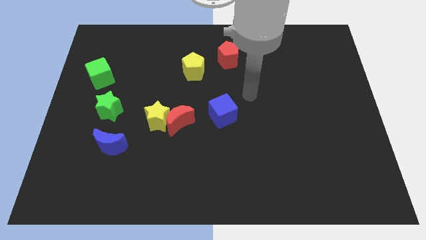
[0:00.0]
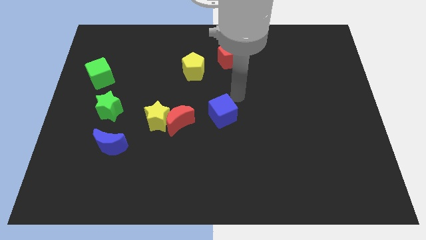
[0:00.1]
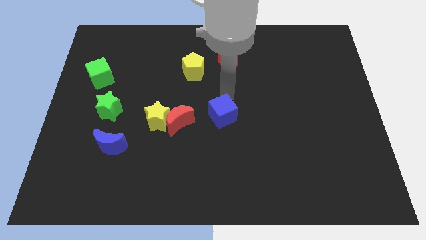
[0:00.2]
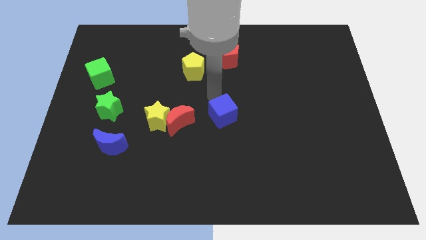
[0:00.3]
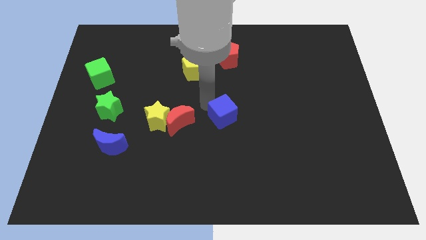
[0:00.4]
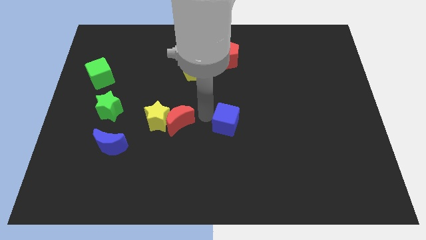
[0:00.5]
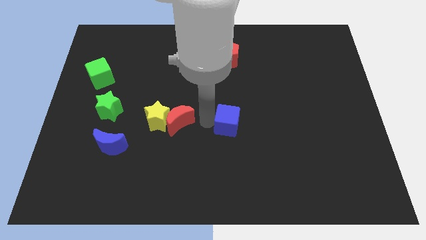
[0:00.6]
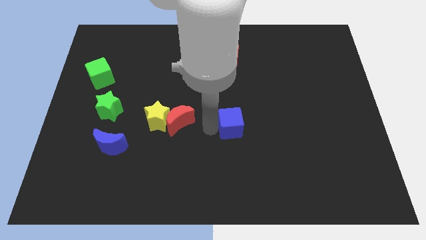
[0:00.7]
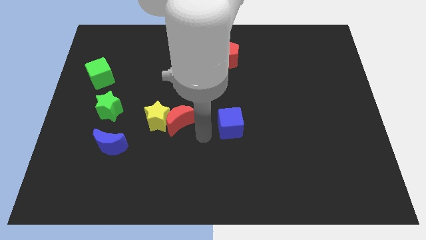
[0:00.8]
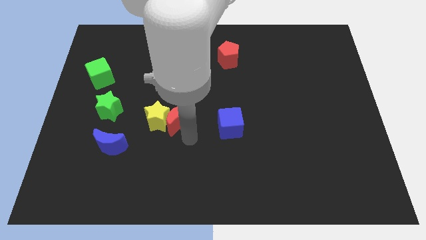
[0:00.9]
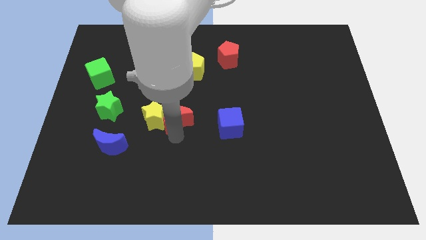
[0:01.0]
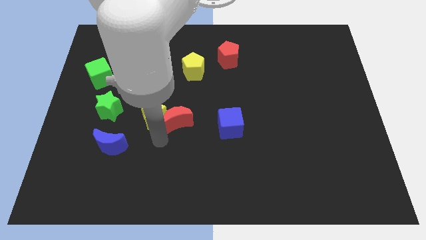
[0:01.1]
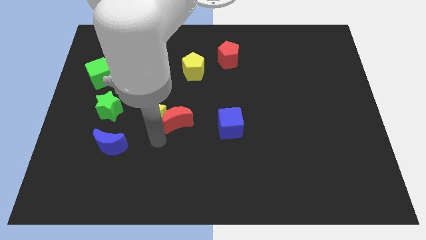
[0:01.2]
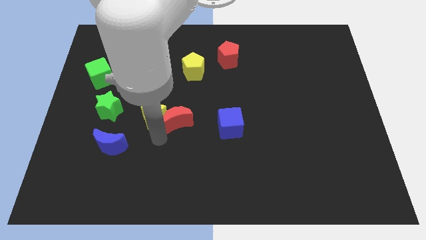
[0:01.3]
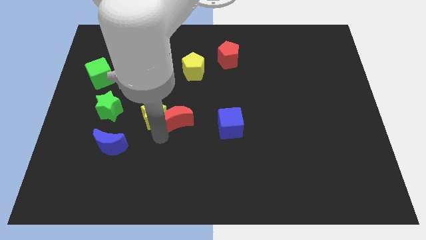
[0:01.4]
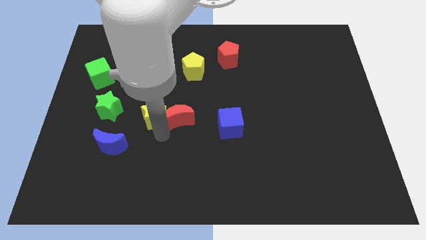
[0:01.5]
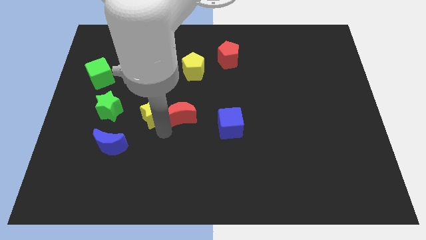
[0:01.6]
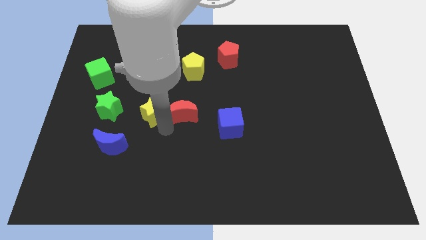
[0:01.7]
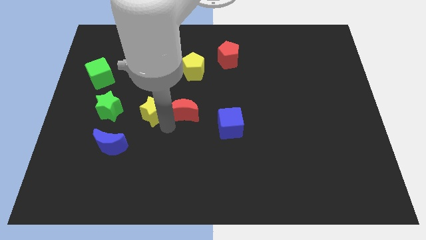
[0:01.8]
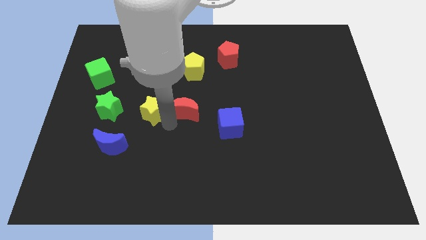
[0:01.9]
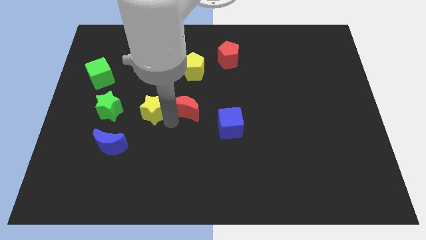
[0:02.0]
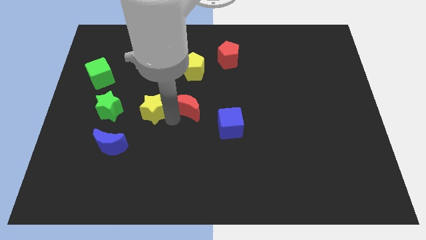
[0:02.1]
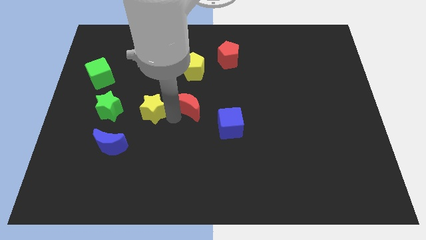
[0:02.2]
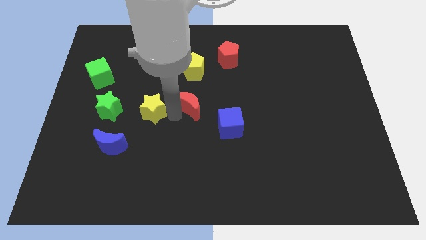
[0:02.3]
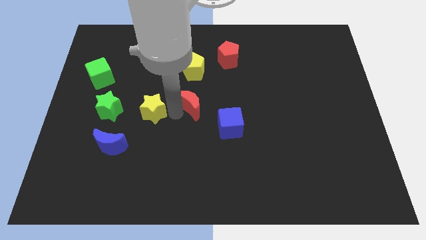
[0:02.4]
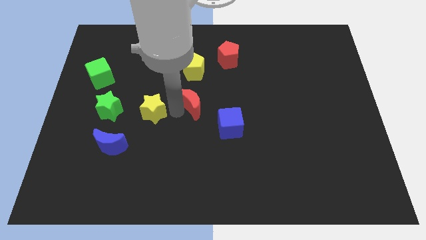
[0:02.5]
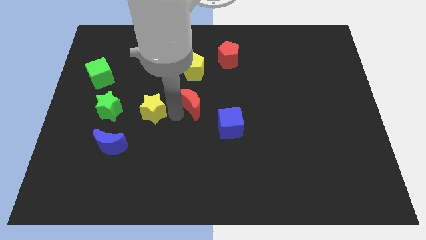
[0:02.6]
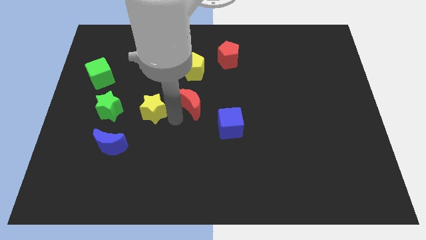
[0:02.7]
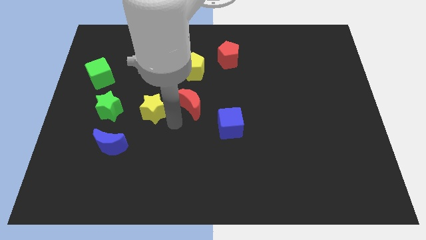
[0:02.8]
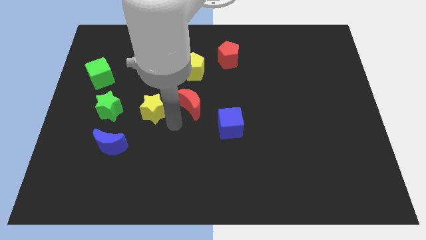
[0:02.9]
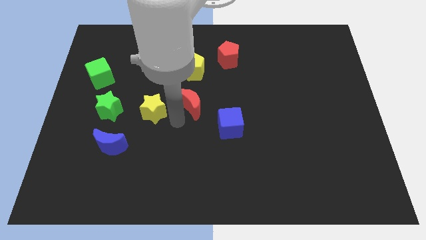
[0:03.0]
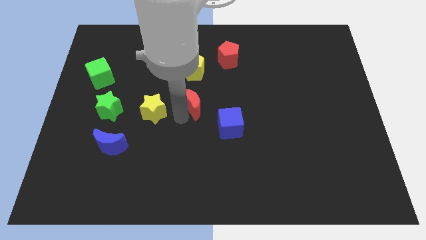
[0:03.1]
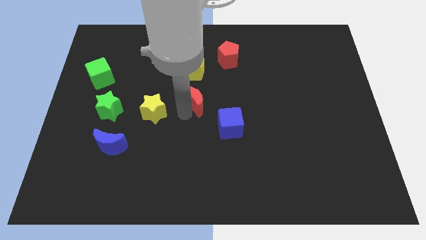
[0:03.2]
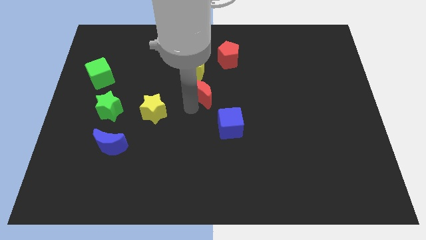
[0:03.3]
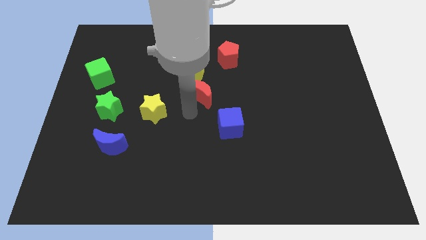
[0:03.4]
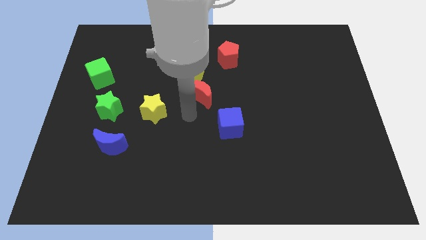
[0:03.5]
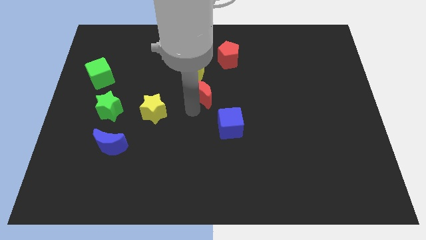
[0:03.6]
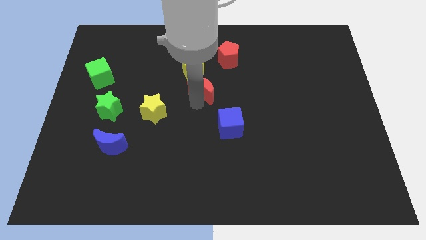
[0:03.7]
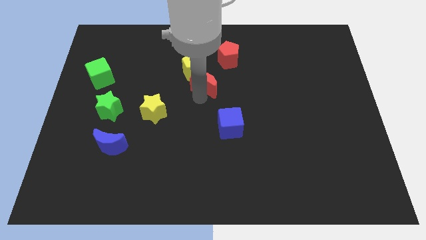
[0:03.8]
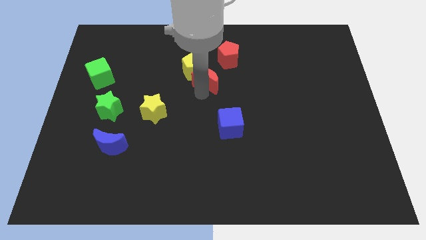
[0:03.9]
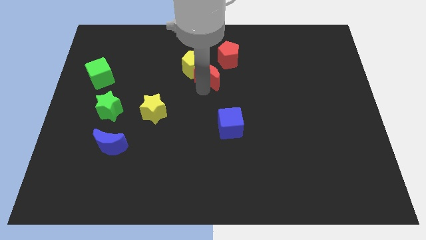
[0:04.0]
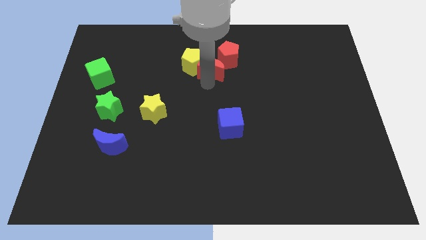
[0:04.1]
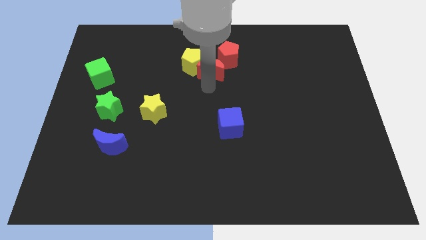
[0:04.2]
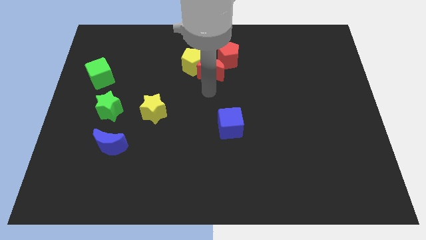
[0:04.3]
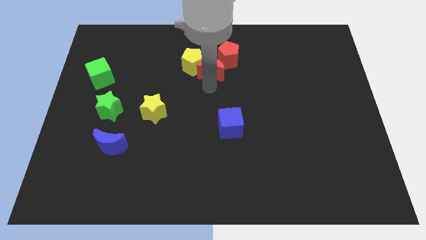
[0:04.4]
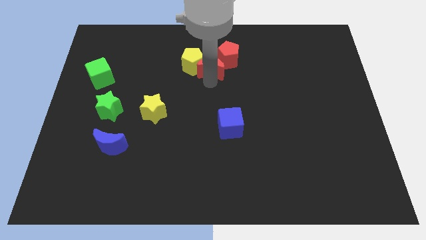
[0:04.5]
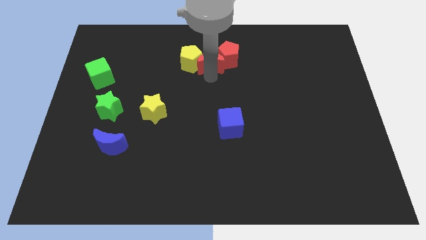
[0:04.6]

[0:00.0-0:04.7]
move the red moon to the top right of the yellow pentagon

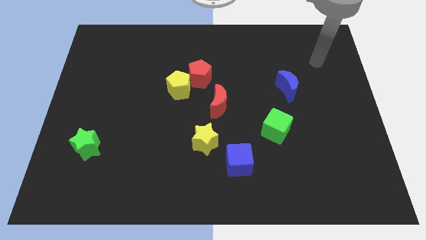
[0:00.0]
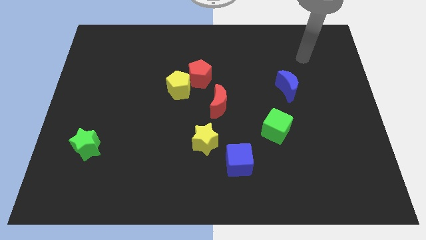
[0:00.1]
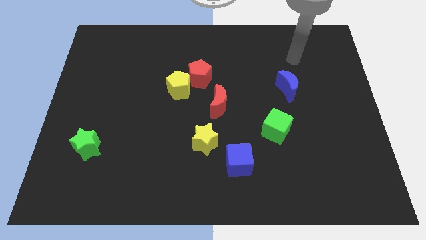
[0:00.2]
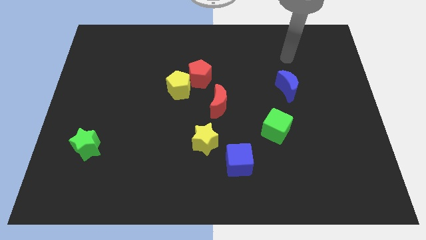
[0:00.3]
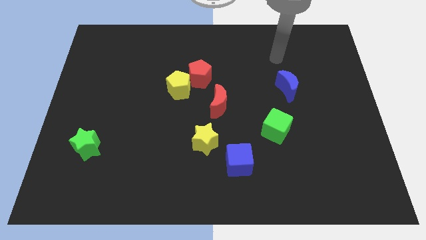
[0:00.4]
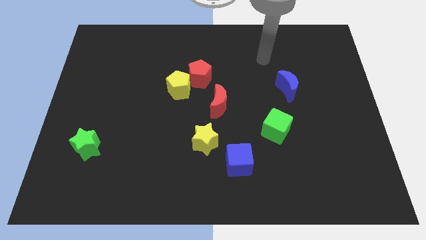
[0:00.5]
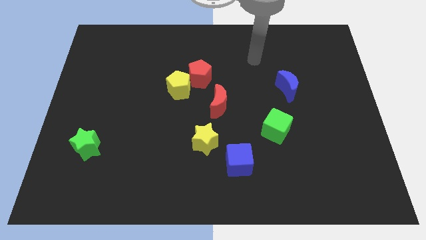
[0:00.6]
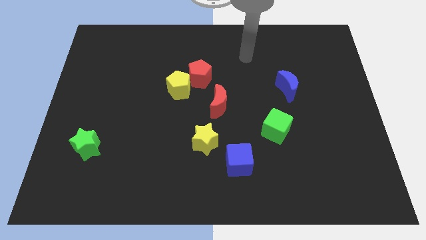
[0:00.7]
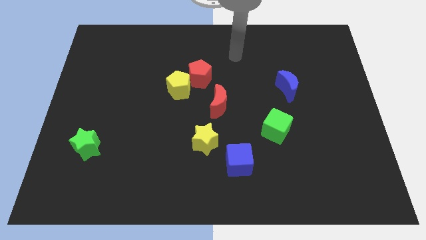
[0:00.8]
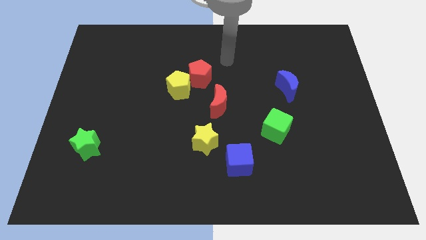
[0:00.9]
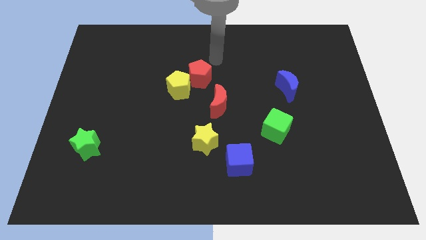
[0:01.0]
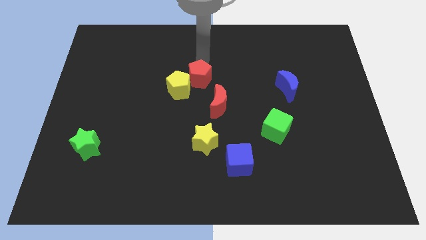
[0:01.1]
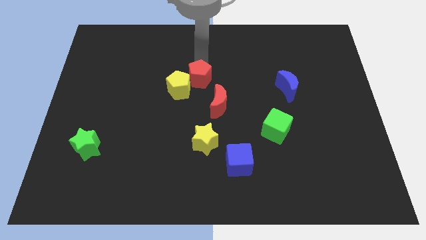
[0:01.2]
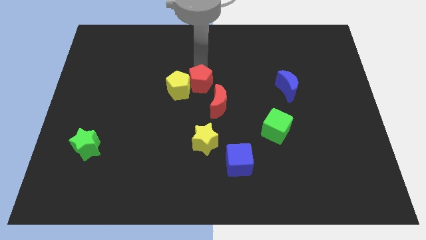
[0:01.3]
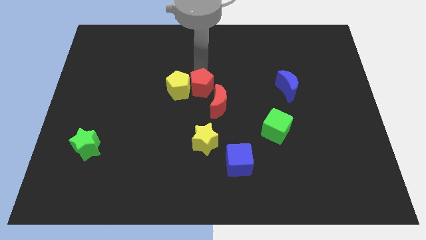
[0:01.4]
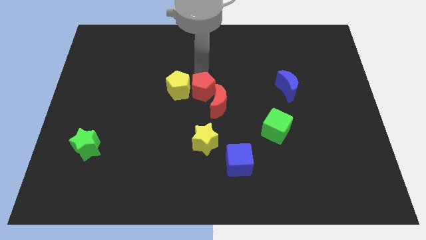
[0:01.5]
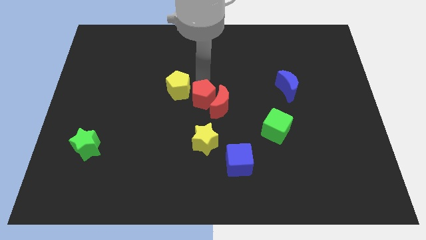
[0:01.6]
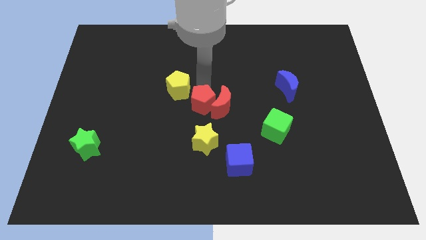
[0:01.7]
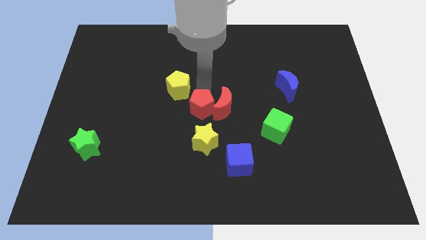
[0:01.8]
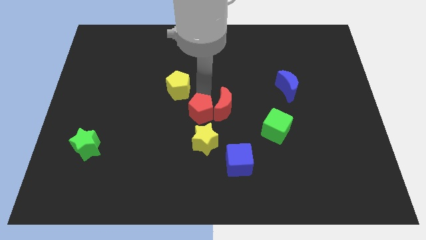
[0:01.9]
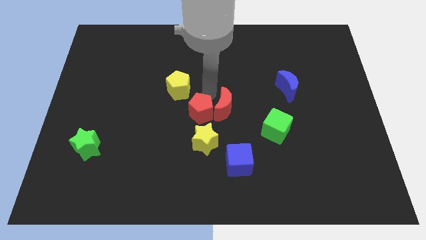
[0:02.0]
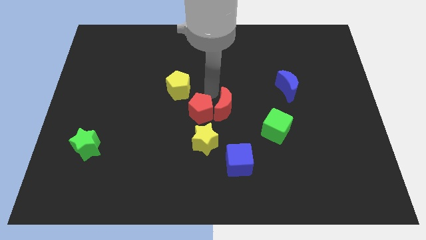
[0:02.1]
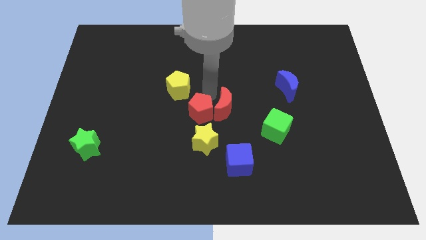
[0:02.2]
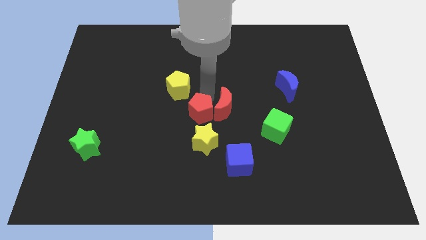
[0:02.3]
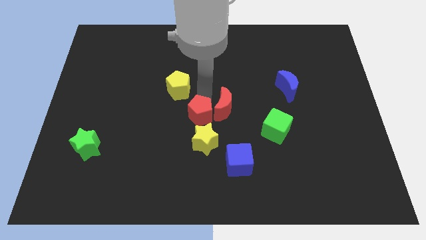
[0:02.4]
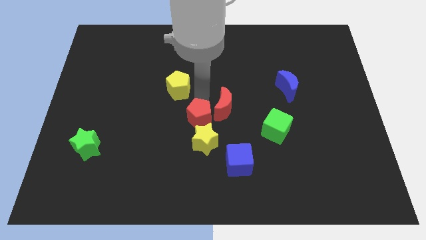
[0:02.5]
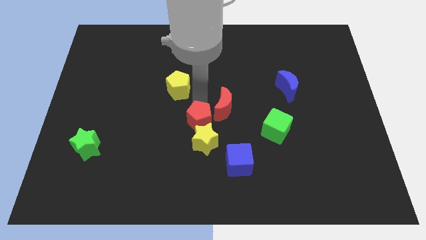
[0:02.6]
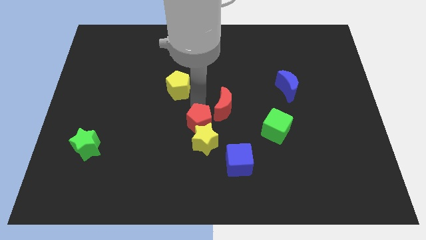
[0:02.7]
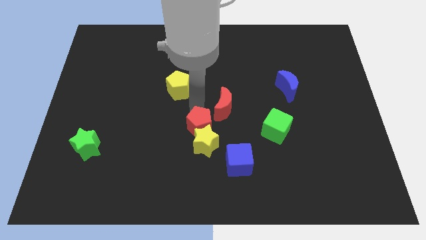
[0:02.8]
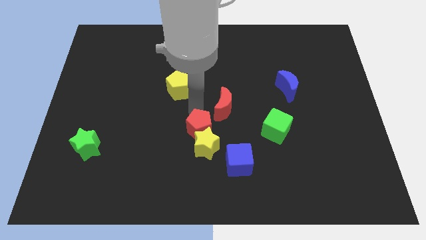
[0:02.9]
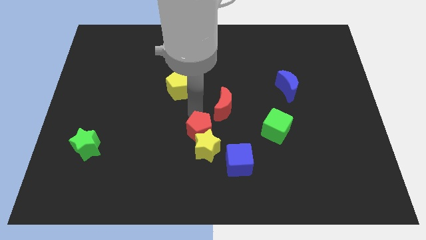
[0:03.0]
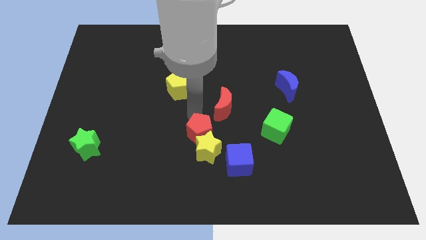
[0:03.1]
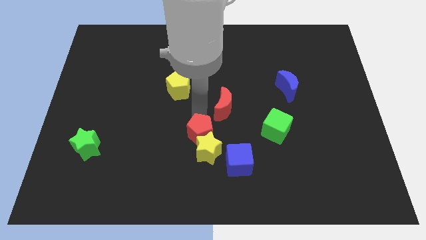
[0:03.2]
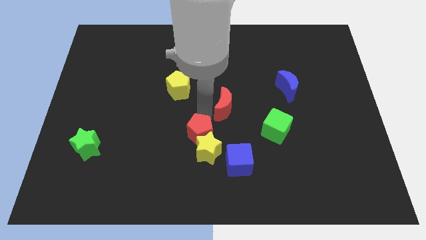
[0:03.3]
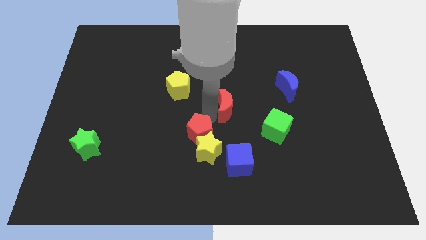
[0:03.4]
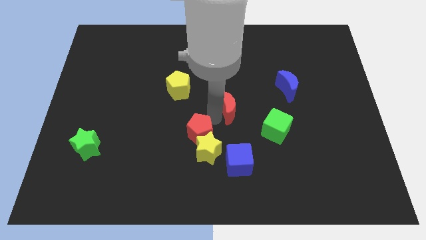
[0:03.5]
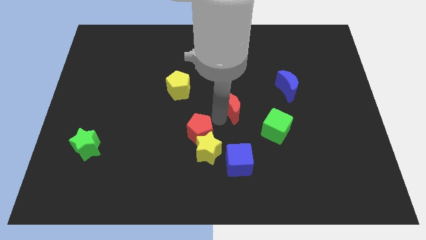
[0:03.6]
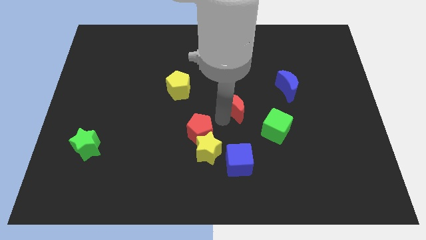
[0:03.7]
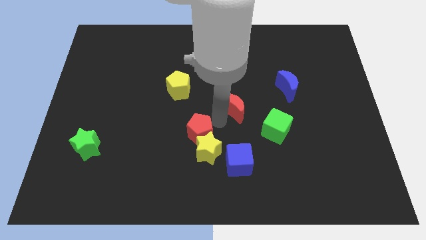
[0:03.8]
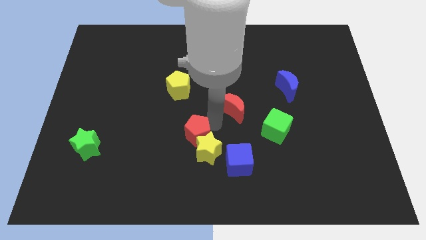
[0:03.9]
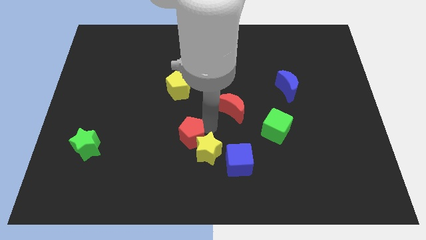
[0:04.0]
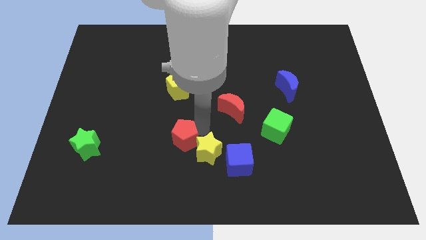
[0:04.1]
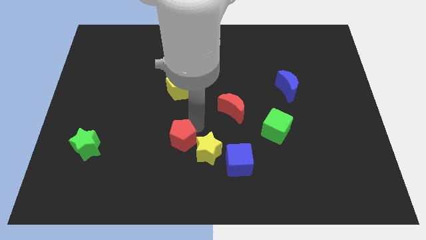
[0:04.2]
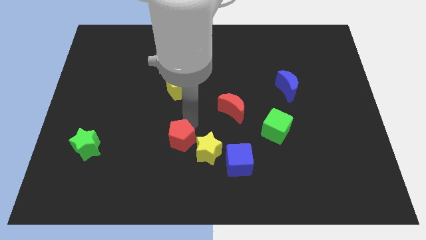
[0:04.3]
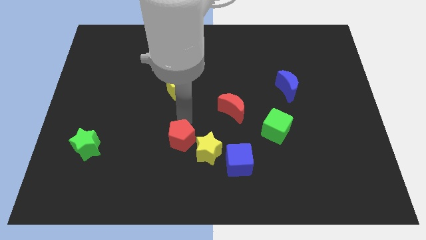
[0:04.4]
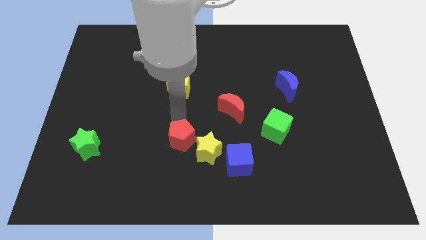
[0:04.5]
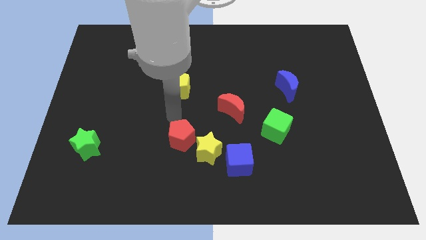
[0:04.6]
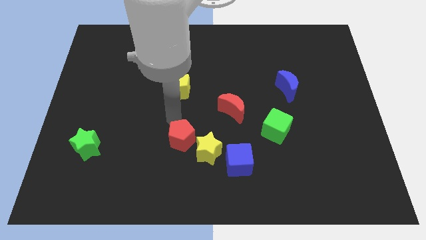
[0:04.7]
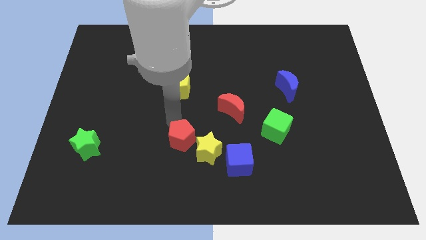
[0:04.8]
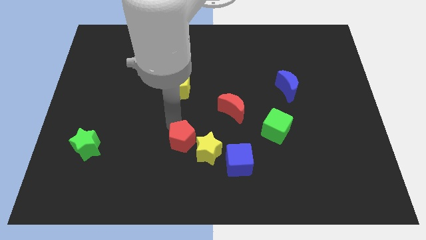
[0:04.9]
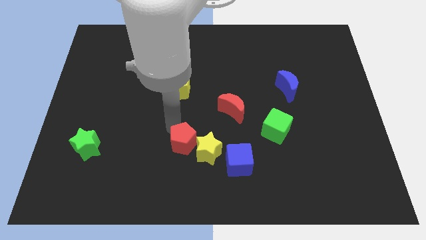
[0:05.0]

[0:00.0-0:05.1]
slide the red pentagon to the left of the blue cube
